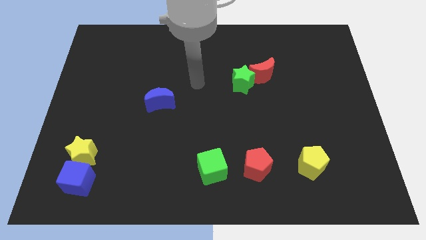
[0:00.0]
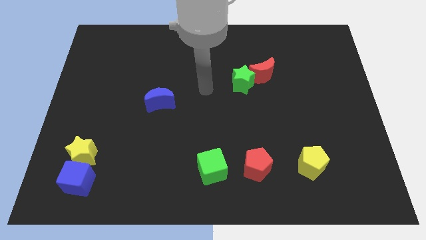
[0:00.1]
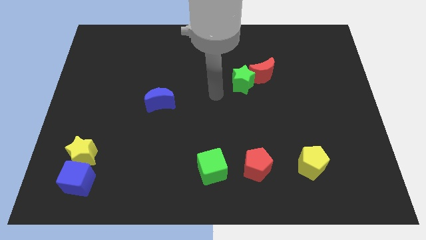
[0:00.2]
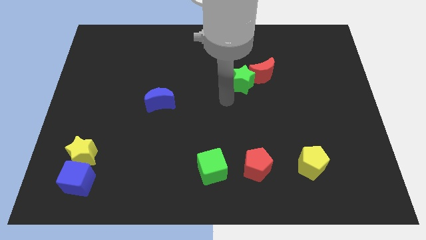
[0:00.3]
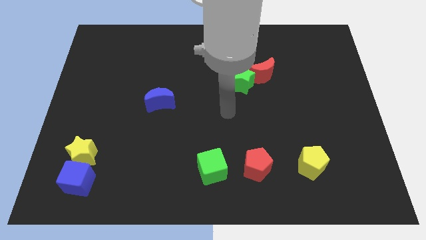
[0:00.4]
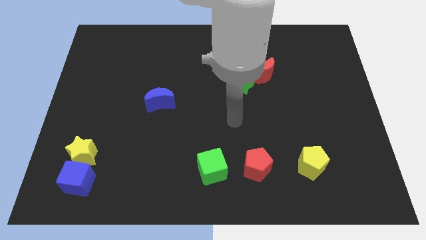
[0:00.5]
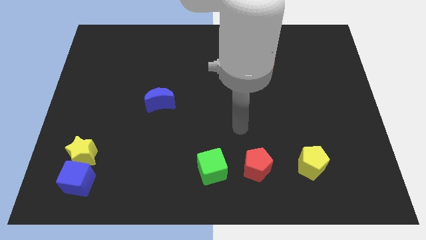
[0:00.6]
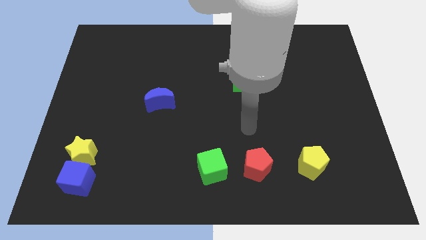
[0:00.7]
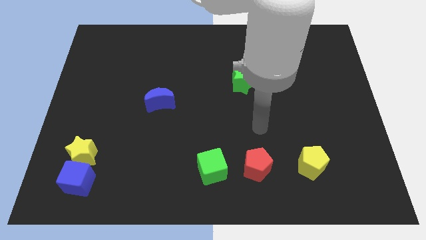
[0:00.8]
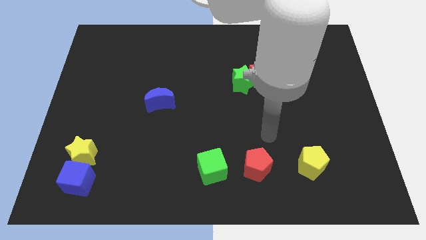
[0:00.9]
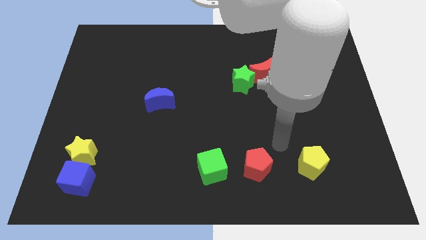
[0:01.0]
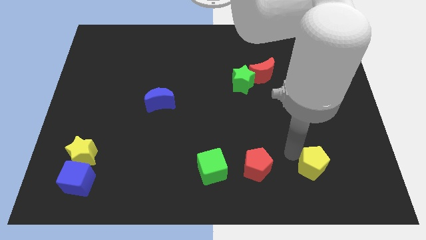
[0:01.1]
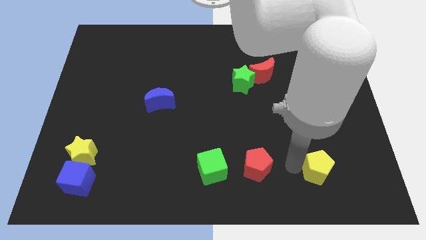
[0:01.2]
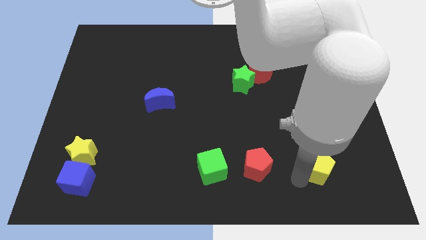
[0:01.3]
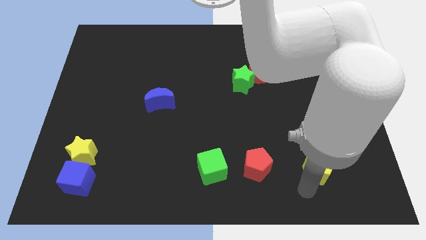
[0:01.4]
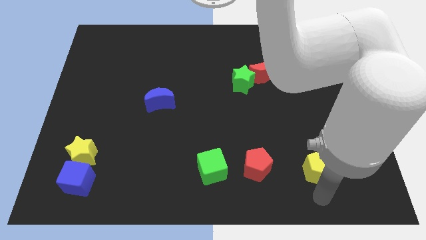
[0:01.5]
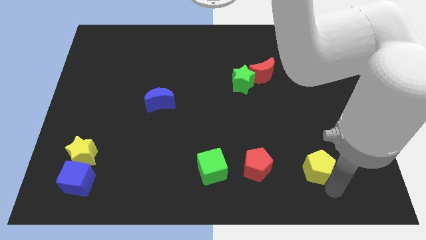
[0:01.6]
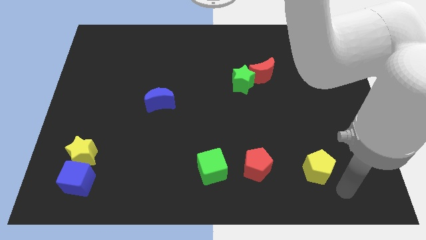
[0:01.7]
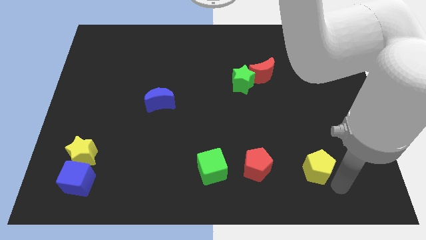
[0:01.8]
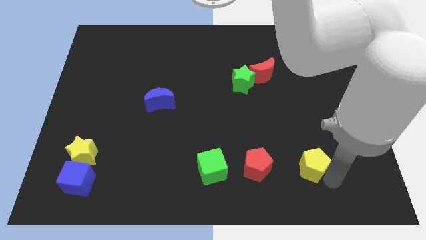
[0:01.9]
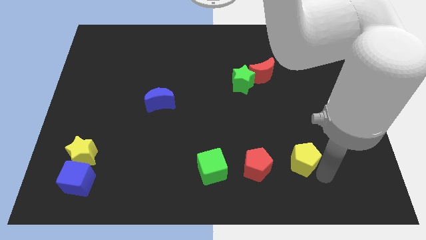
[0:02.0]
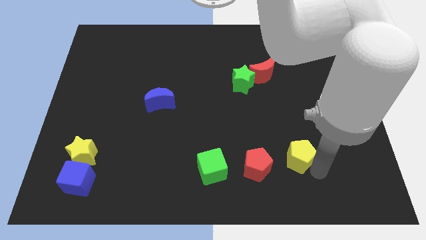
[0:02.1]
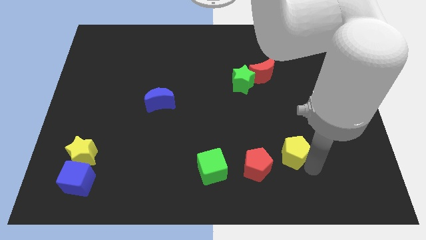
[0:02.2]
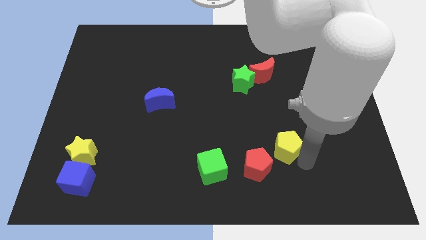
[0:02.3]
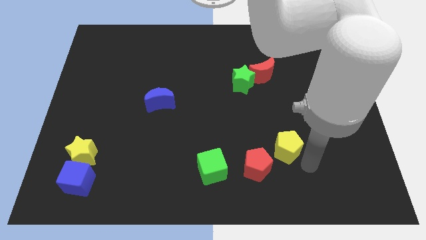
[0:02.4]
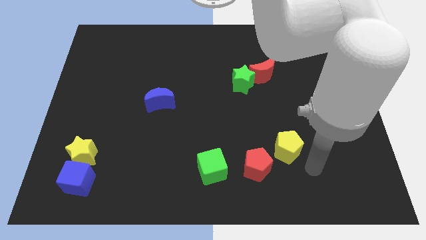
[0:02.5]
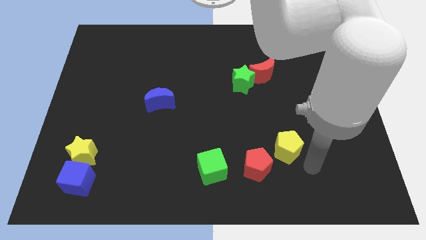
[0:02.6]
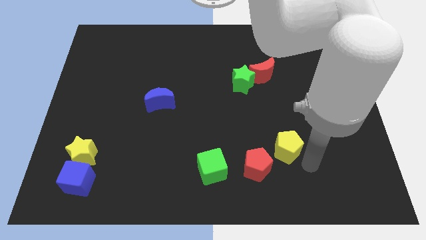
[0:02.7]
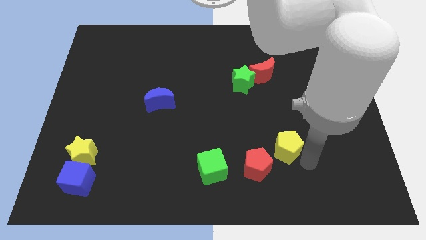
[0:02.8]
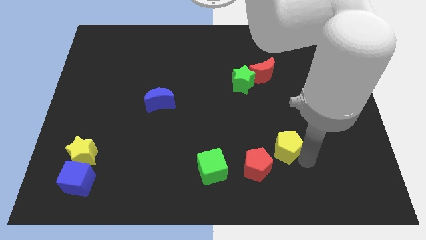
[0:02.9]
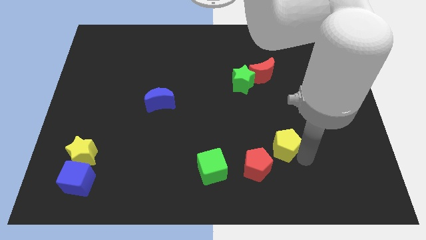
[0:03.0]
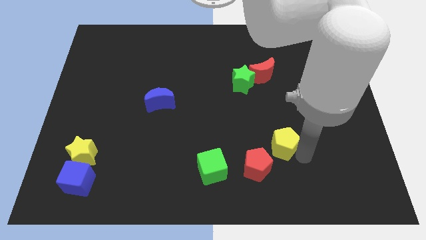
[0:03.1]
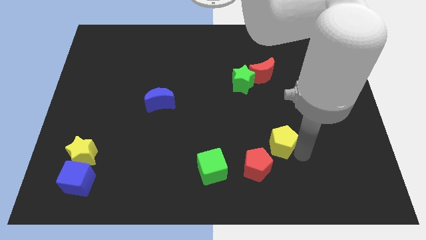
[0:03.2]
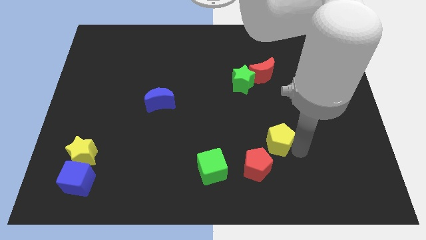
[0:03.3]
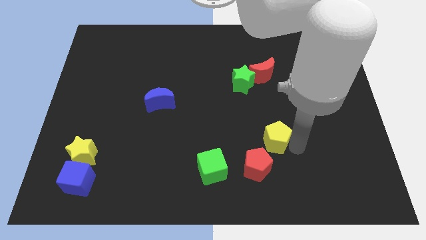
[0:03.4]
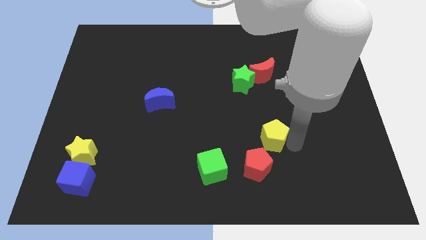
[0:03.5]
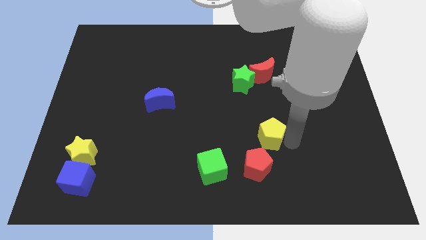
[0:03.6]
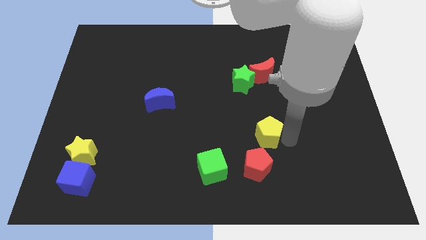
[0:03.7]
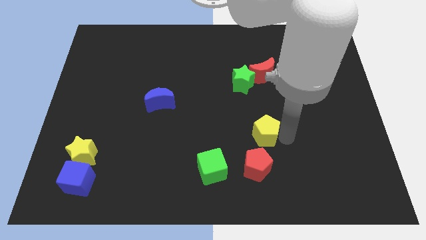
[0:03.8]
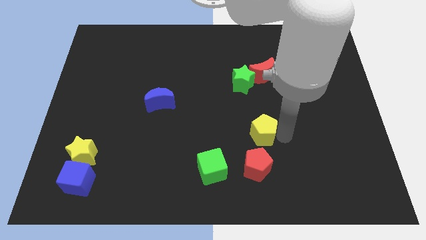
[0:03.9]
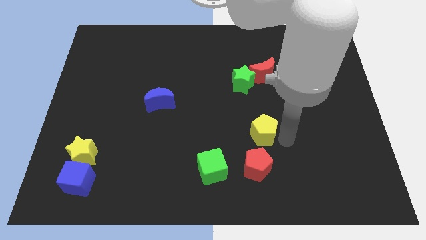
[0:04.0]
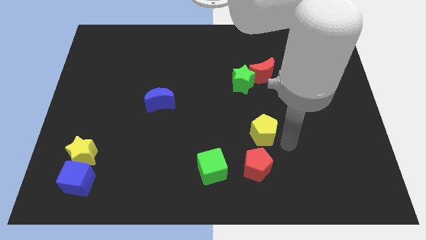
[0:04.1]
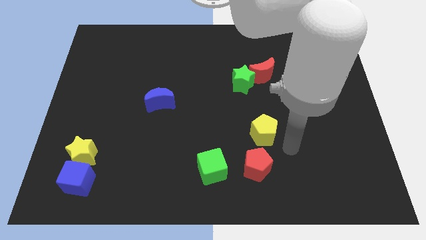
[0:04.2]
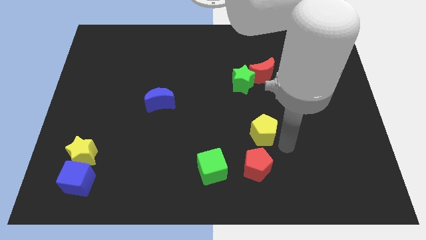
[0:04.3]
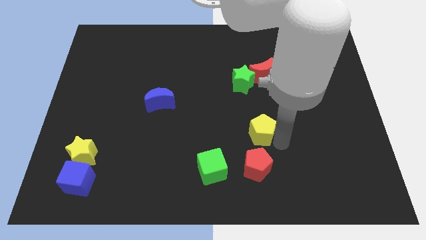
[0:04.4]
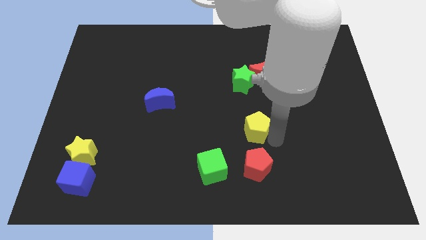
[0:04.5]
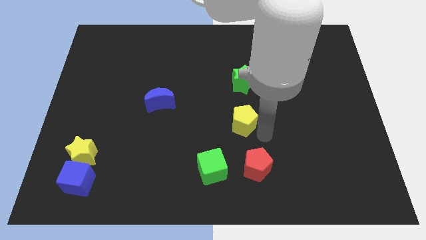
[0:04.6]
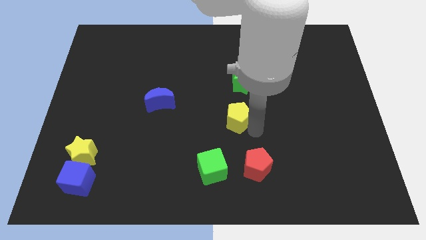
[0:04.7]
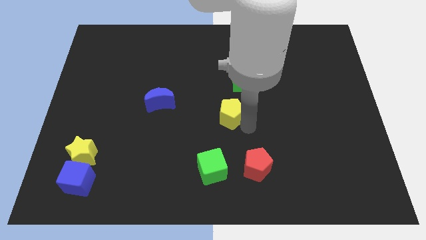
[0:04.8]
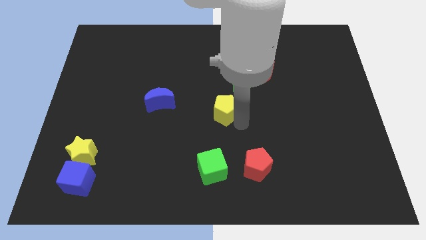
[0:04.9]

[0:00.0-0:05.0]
push the yellow pentagon to the bottom left side of the green star

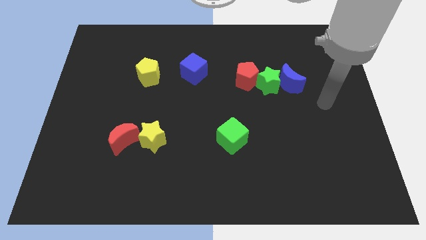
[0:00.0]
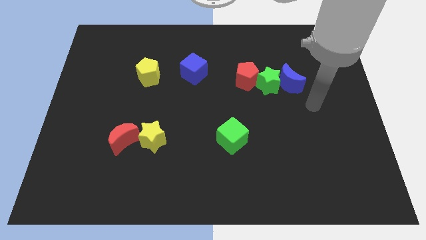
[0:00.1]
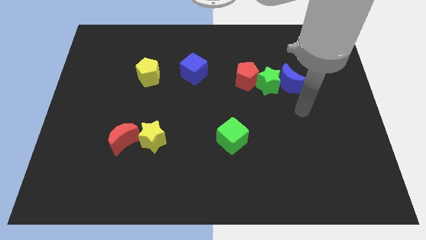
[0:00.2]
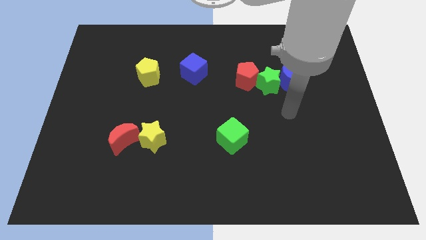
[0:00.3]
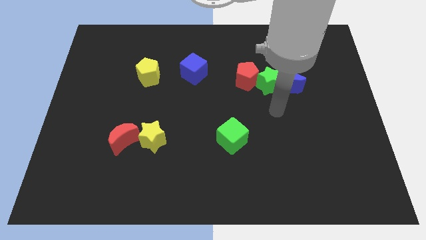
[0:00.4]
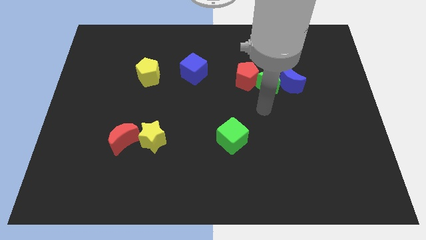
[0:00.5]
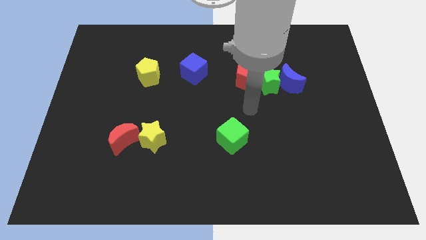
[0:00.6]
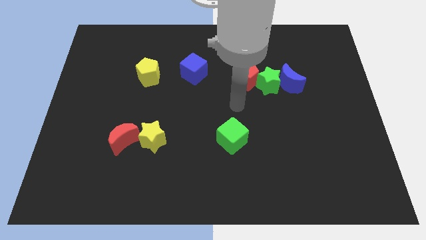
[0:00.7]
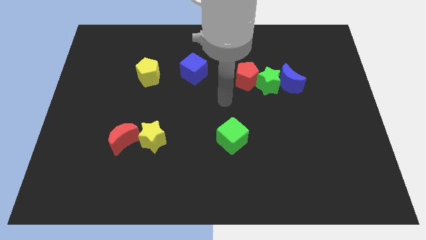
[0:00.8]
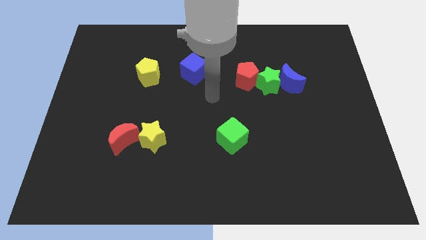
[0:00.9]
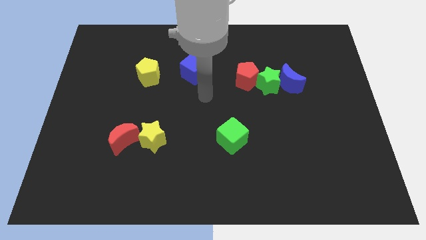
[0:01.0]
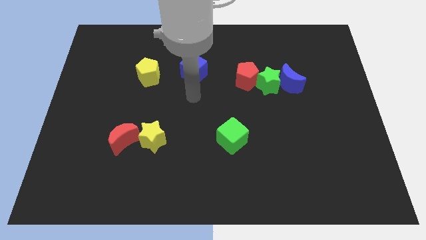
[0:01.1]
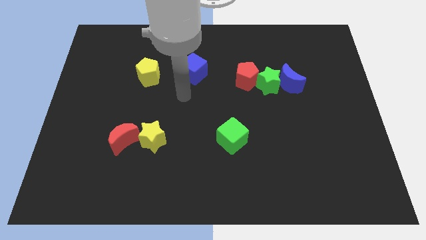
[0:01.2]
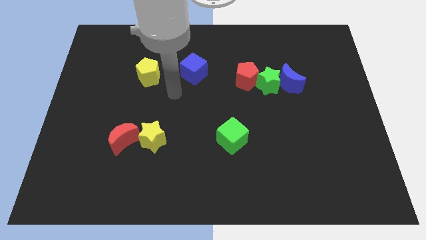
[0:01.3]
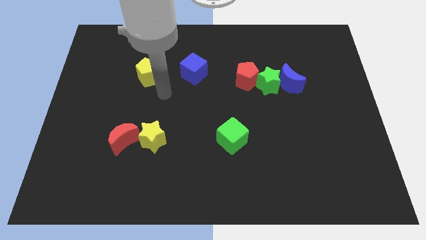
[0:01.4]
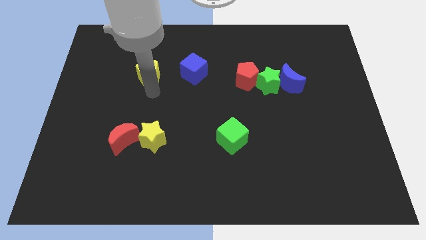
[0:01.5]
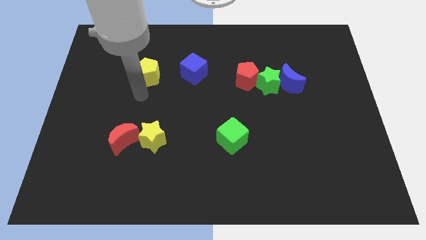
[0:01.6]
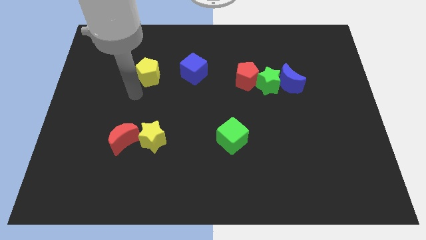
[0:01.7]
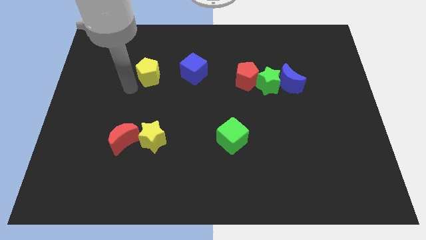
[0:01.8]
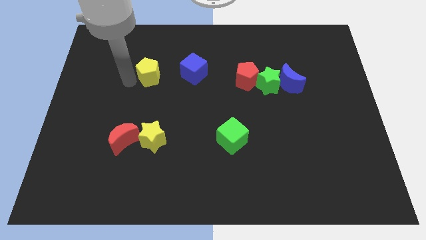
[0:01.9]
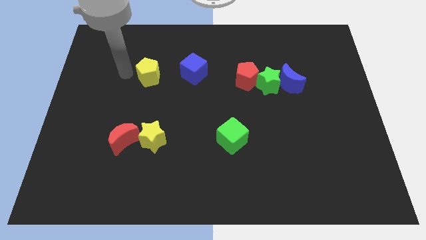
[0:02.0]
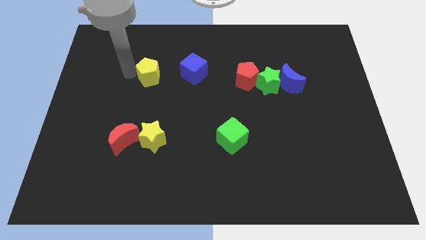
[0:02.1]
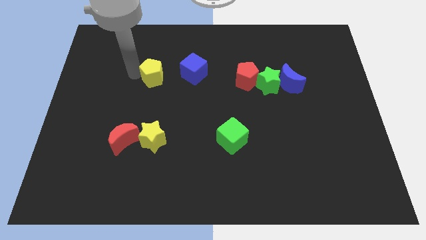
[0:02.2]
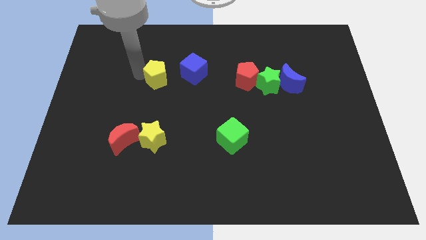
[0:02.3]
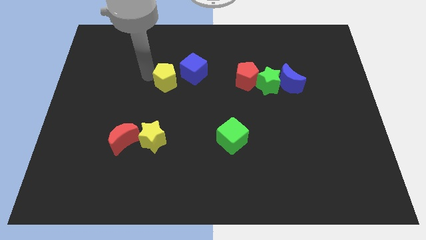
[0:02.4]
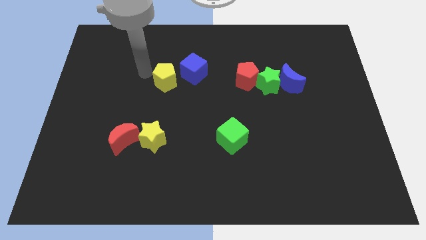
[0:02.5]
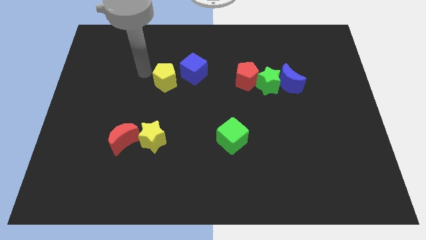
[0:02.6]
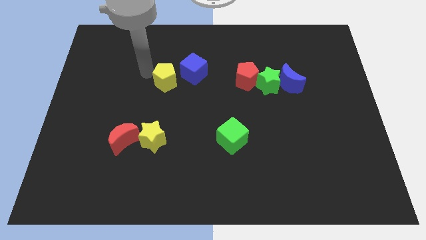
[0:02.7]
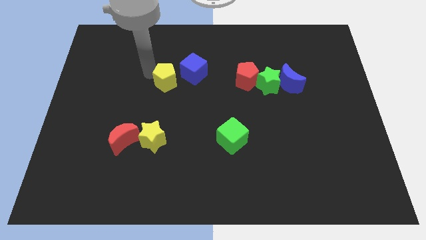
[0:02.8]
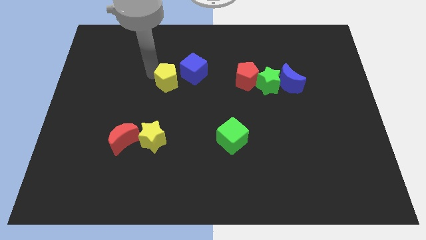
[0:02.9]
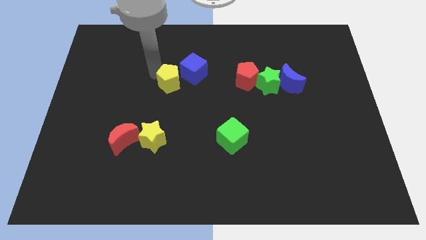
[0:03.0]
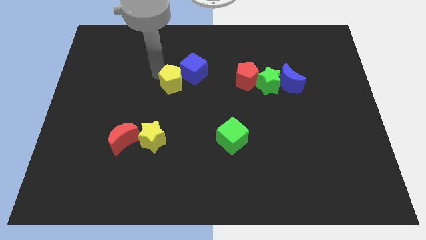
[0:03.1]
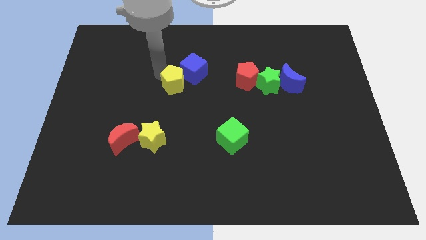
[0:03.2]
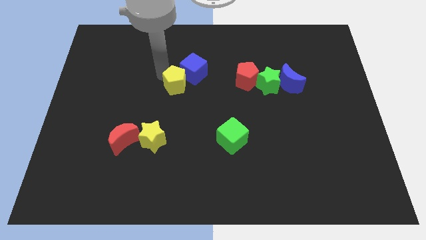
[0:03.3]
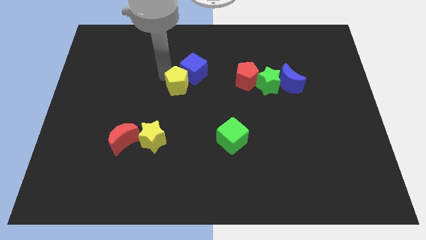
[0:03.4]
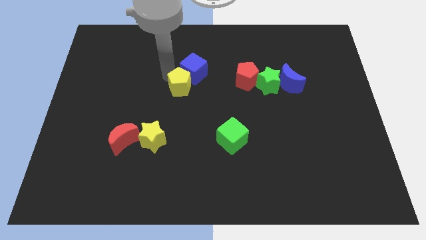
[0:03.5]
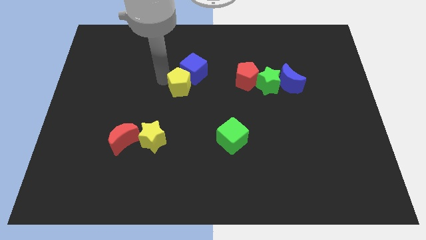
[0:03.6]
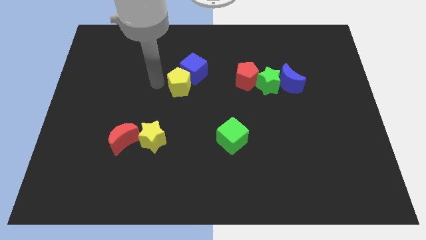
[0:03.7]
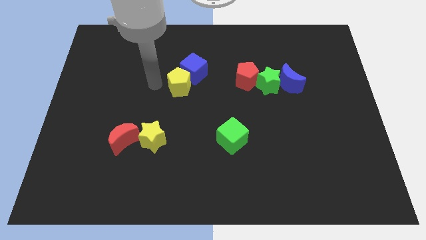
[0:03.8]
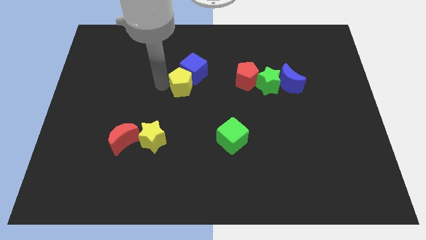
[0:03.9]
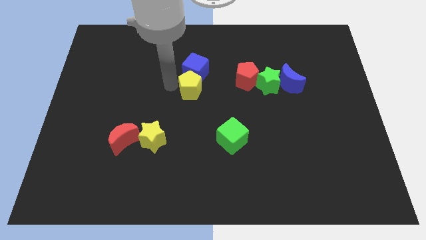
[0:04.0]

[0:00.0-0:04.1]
put the yellow pentagon to the bottom right side of the blue cube
